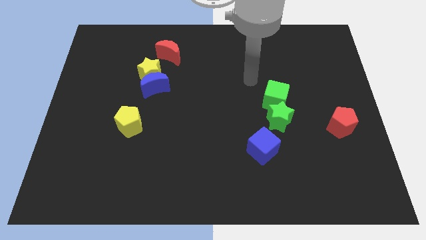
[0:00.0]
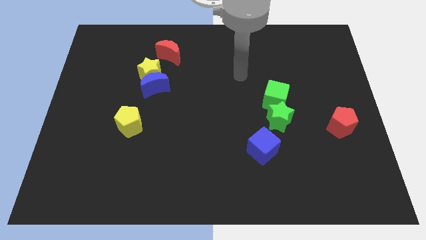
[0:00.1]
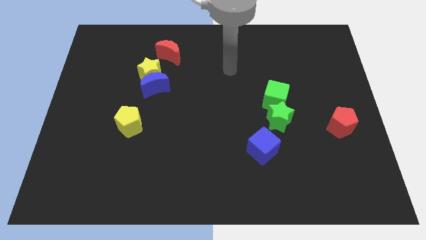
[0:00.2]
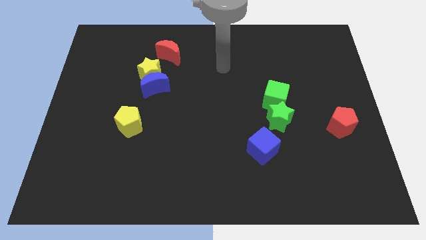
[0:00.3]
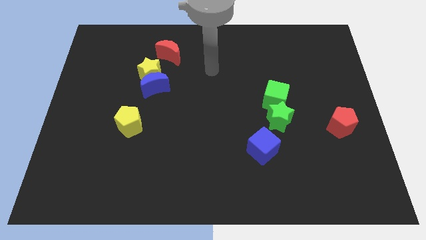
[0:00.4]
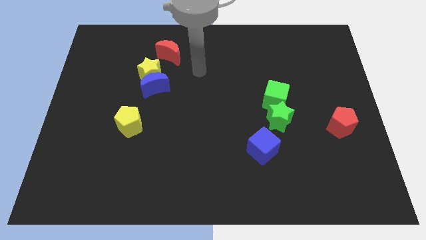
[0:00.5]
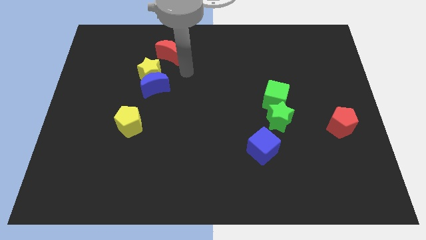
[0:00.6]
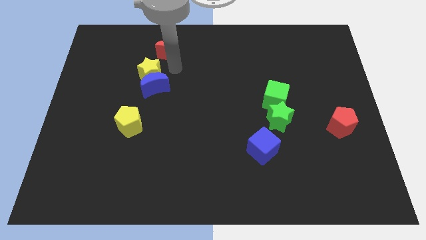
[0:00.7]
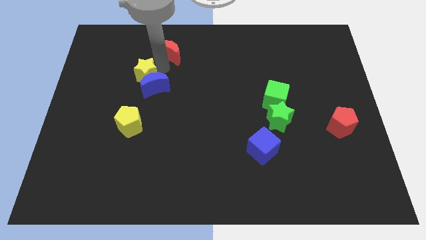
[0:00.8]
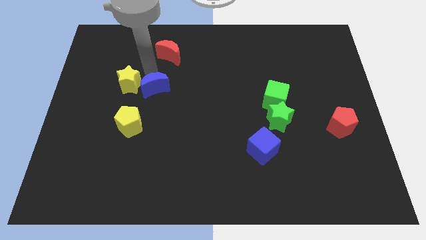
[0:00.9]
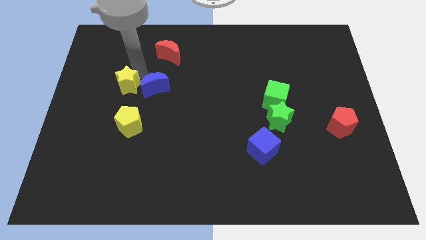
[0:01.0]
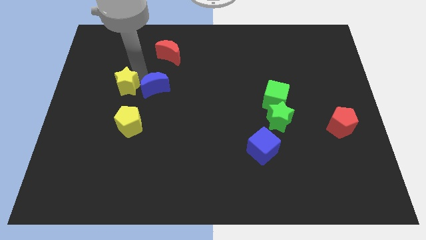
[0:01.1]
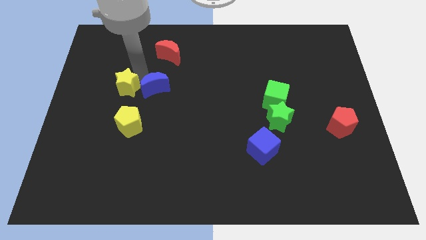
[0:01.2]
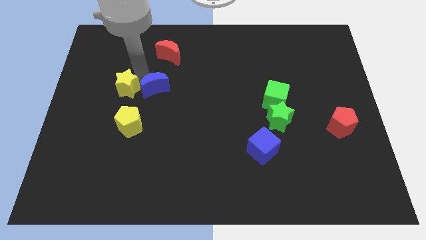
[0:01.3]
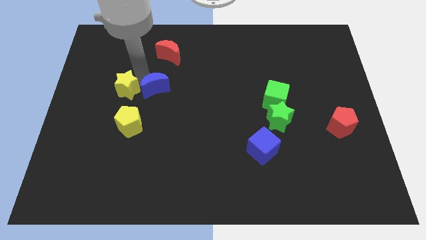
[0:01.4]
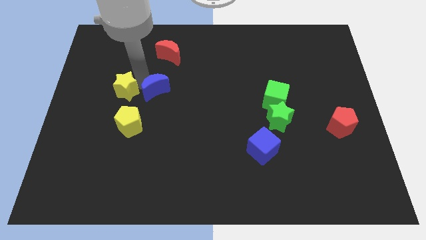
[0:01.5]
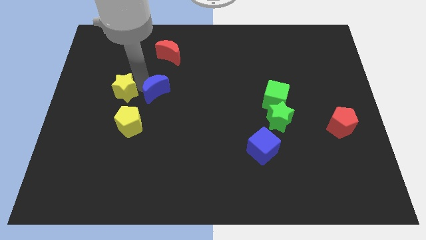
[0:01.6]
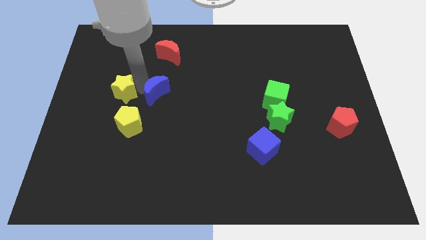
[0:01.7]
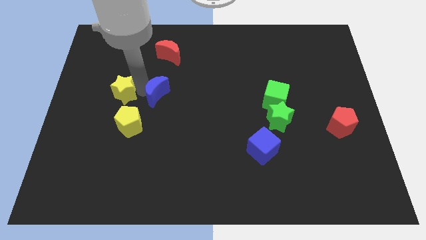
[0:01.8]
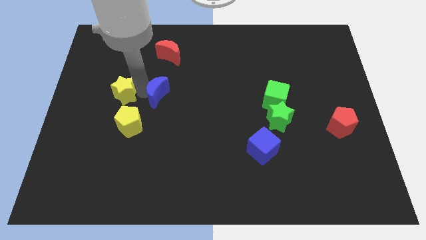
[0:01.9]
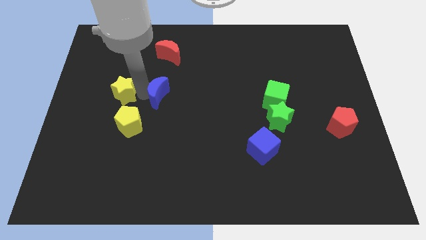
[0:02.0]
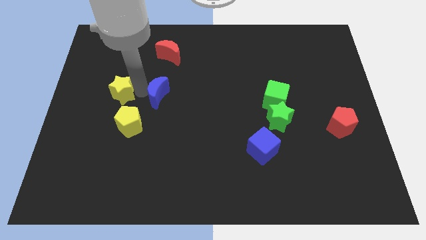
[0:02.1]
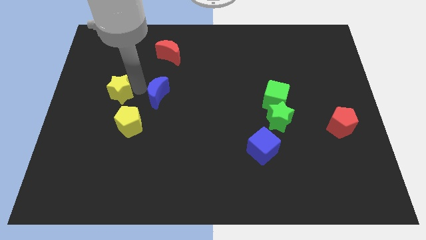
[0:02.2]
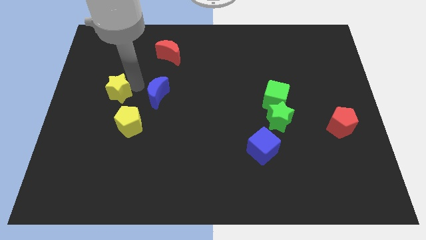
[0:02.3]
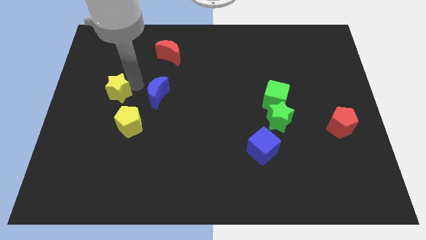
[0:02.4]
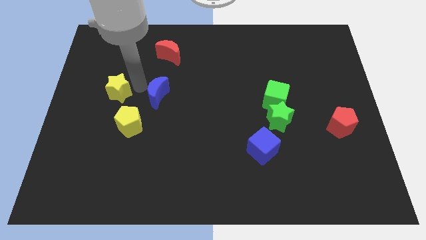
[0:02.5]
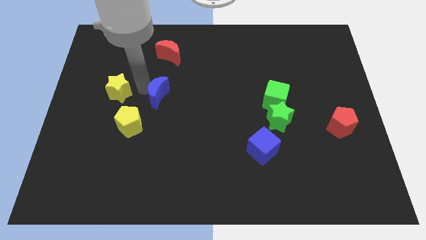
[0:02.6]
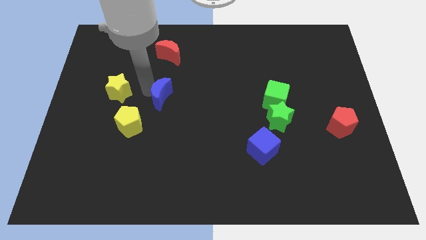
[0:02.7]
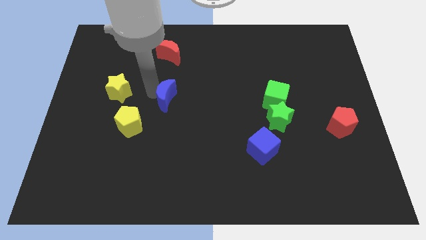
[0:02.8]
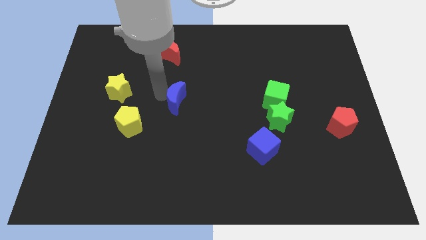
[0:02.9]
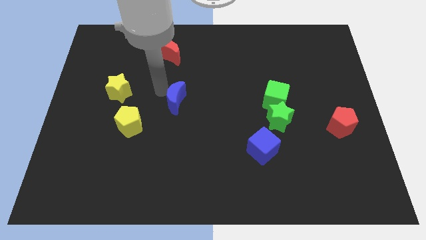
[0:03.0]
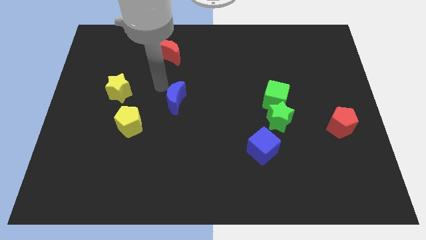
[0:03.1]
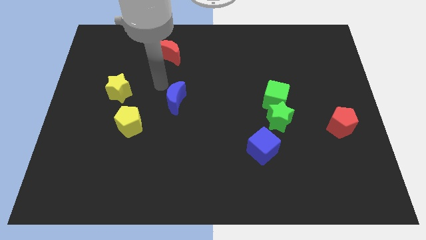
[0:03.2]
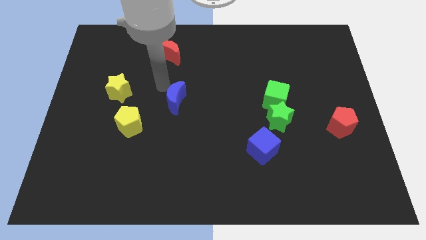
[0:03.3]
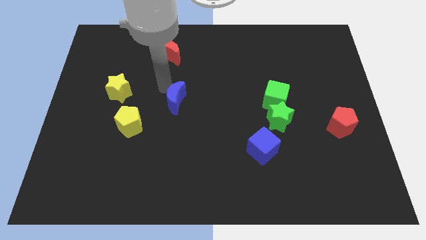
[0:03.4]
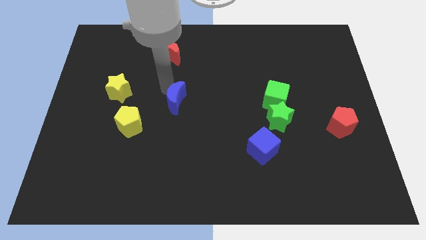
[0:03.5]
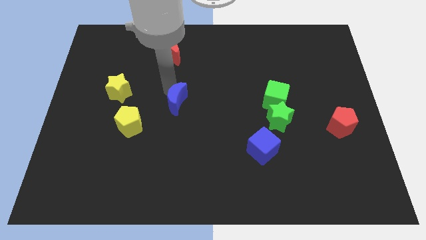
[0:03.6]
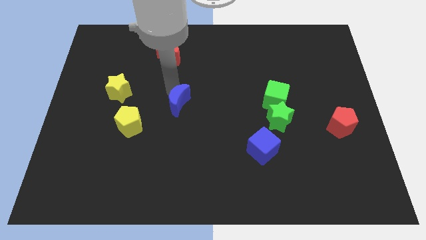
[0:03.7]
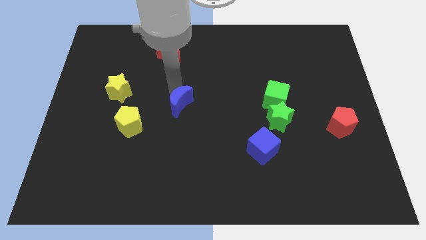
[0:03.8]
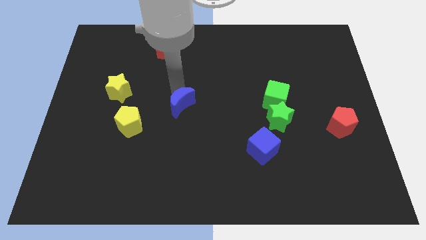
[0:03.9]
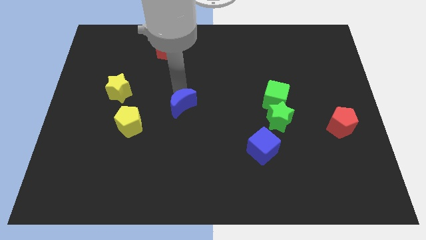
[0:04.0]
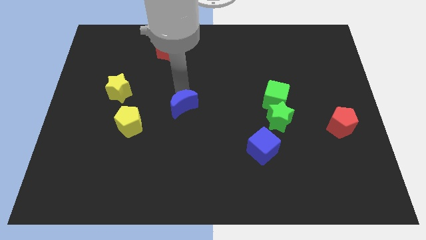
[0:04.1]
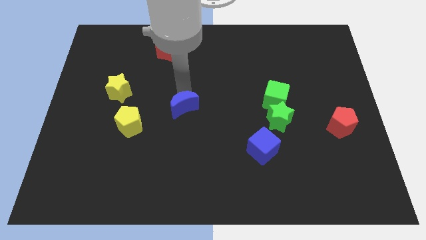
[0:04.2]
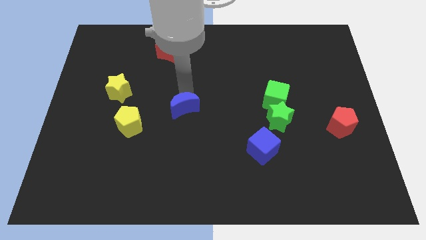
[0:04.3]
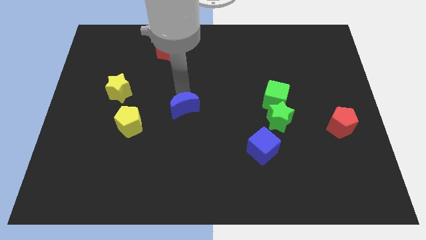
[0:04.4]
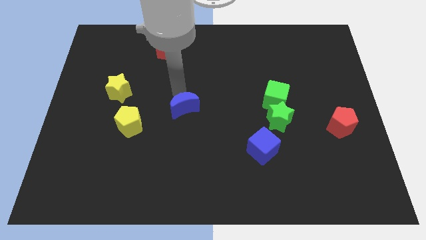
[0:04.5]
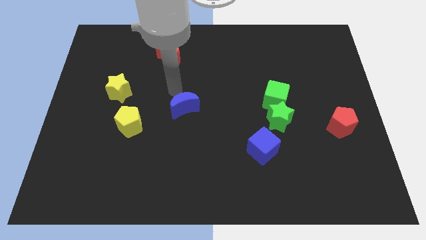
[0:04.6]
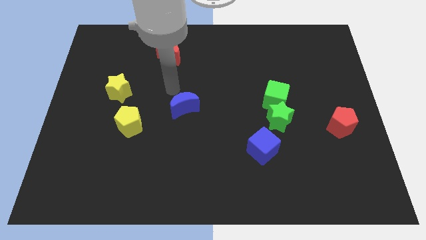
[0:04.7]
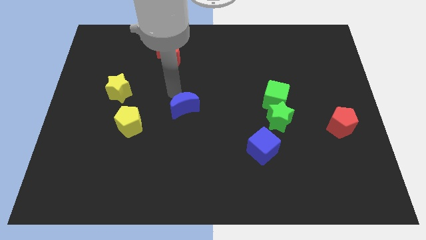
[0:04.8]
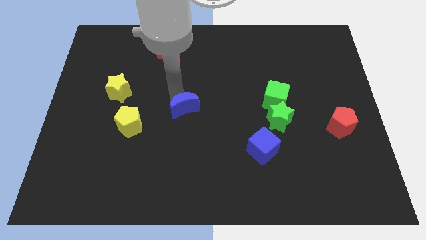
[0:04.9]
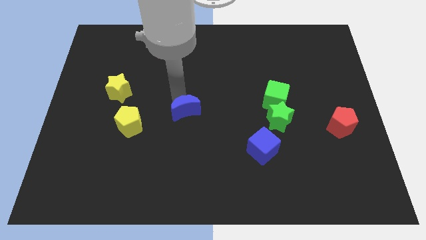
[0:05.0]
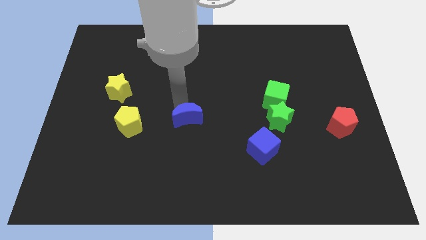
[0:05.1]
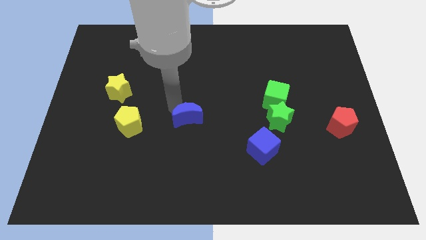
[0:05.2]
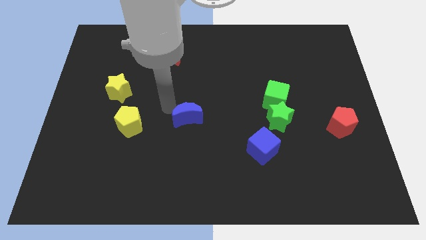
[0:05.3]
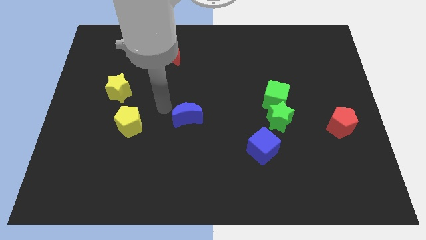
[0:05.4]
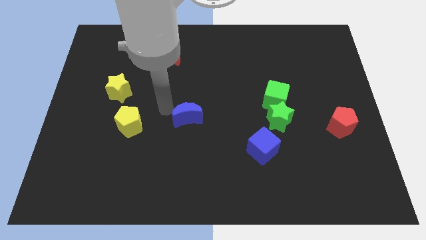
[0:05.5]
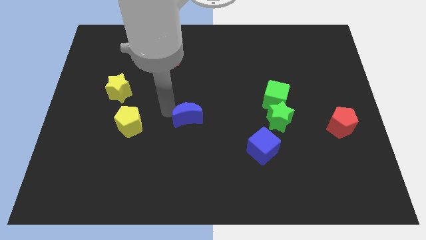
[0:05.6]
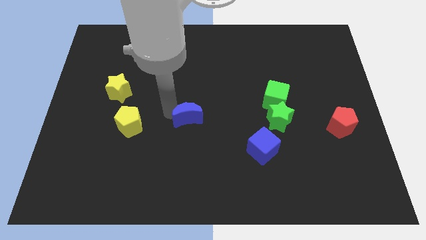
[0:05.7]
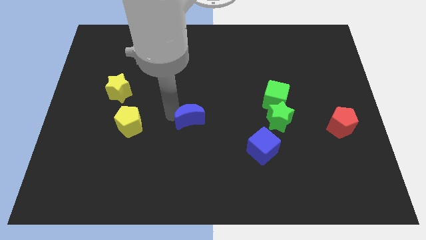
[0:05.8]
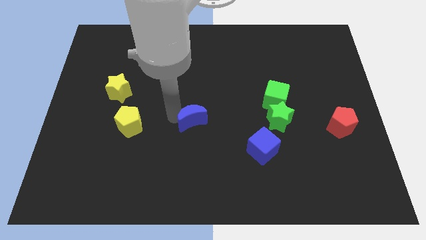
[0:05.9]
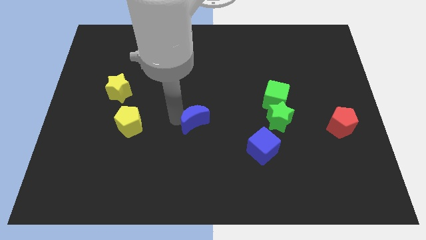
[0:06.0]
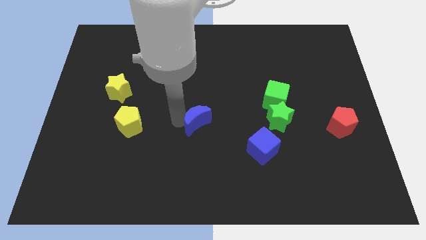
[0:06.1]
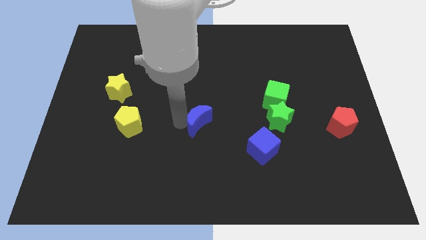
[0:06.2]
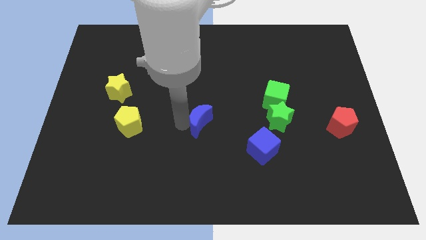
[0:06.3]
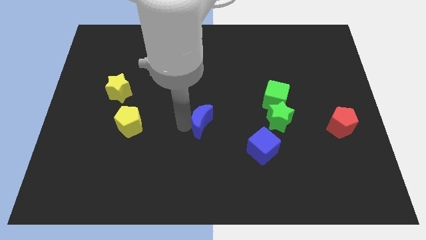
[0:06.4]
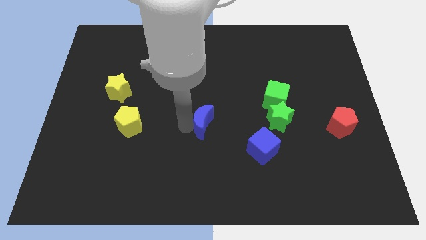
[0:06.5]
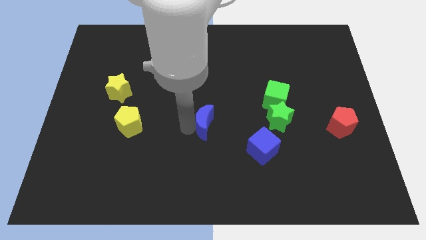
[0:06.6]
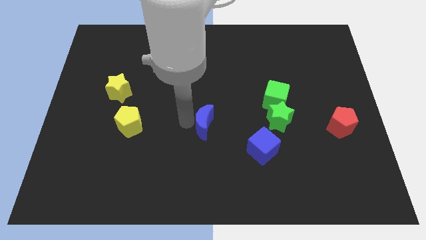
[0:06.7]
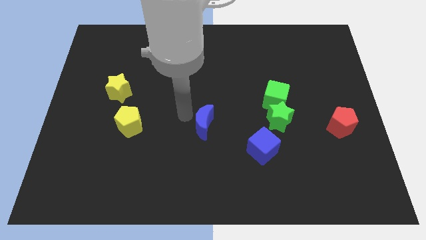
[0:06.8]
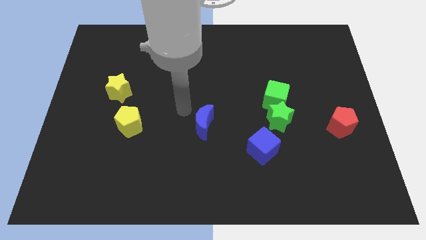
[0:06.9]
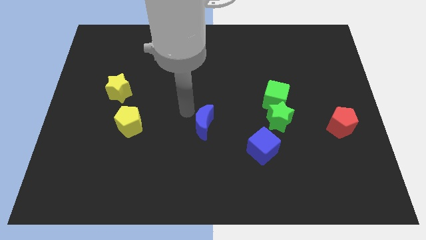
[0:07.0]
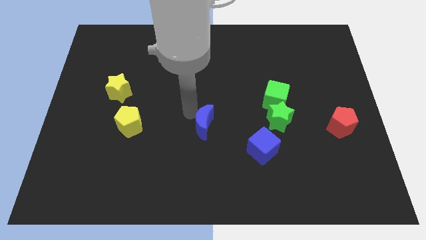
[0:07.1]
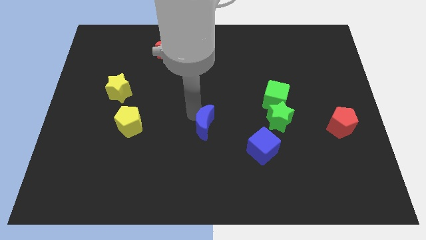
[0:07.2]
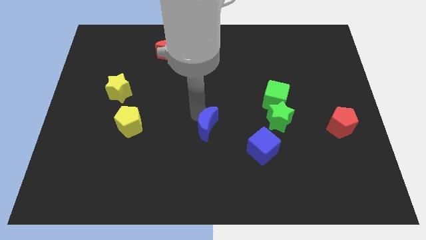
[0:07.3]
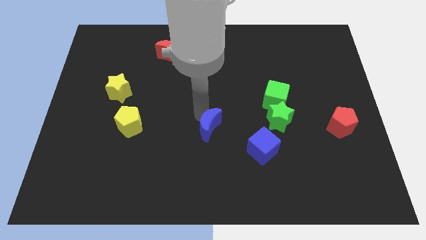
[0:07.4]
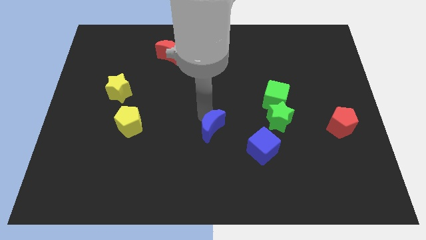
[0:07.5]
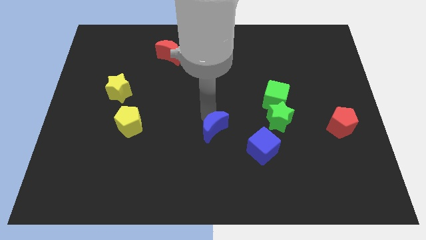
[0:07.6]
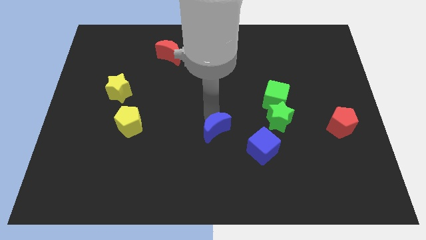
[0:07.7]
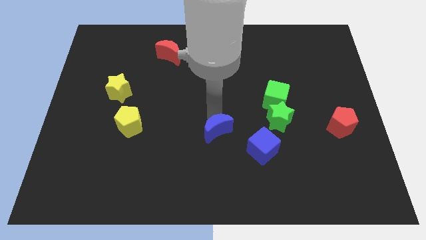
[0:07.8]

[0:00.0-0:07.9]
push the blue moon diagonally downwards and to the right
